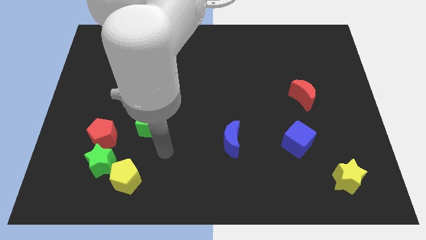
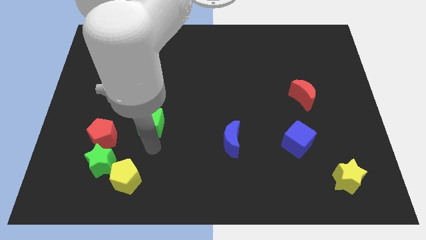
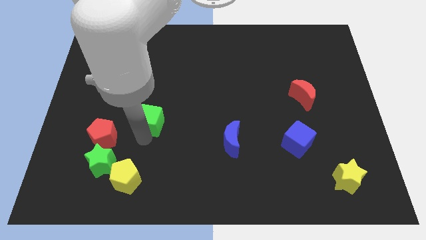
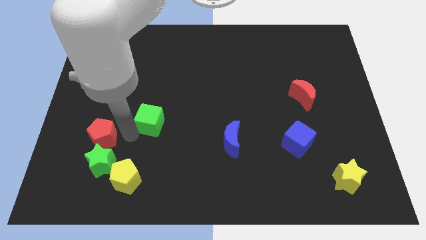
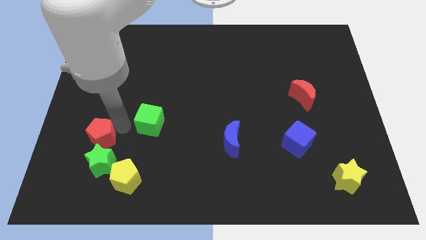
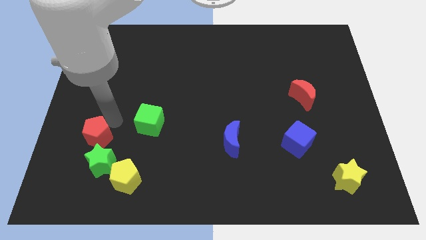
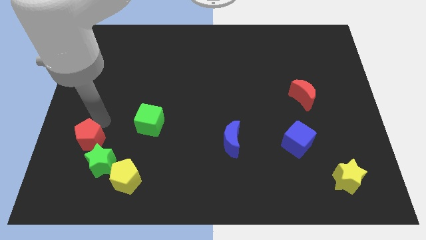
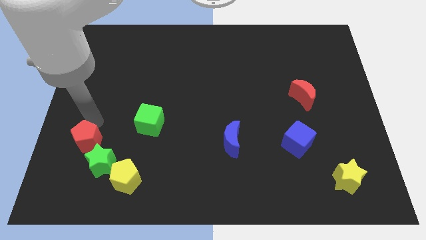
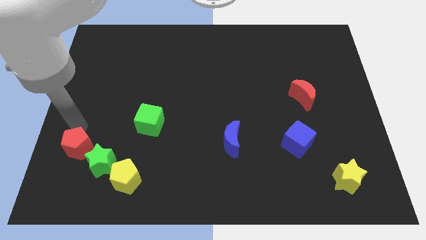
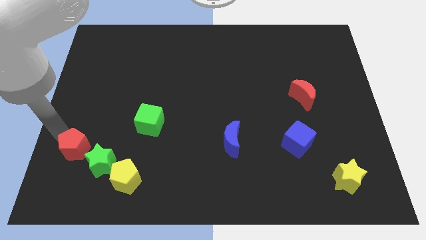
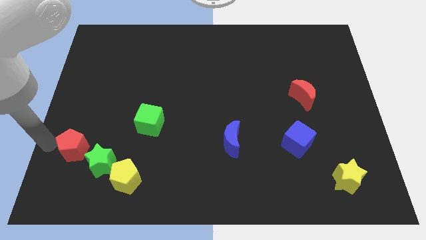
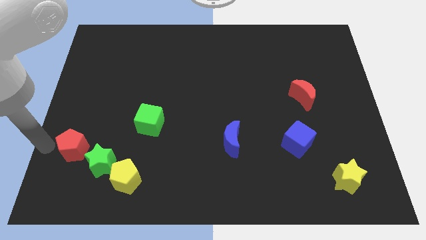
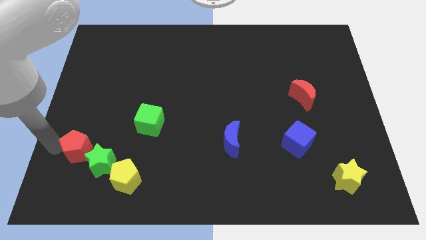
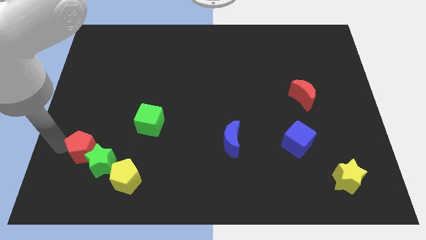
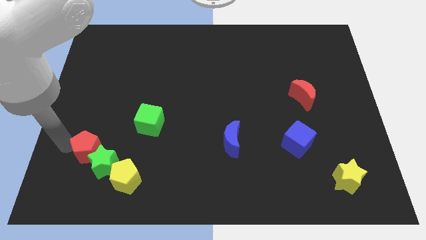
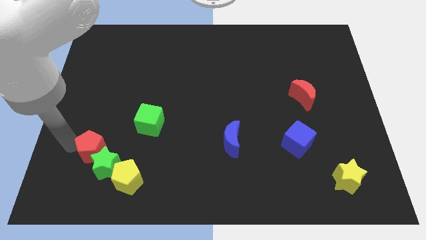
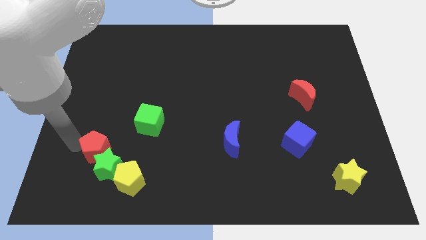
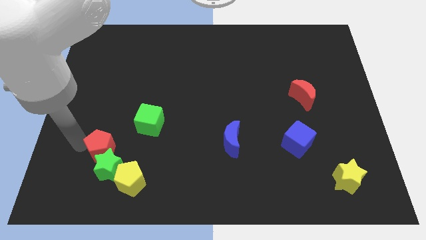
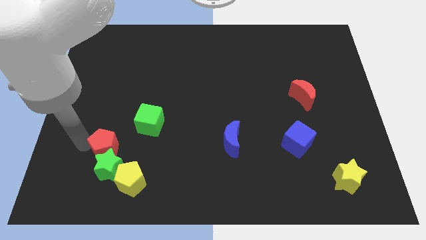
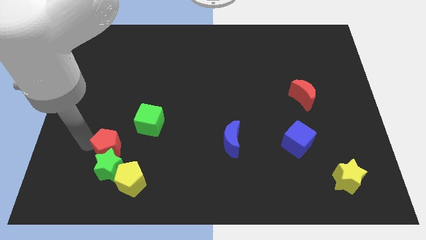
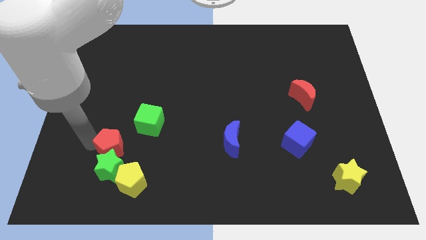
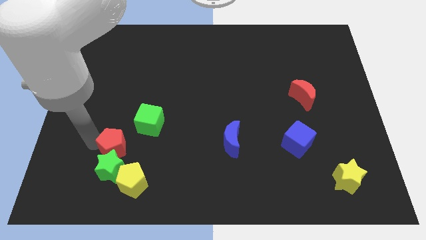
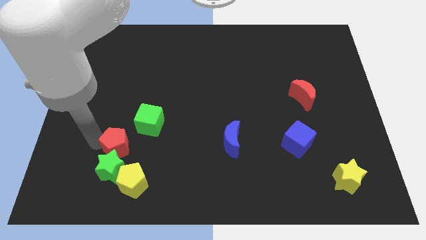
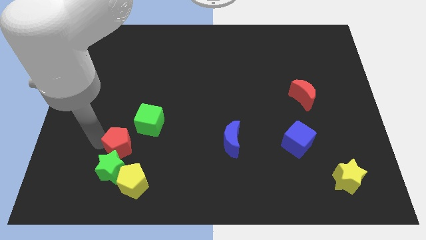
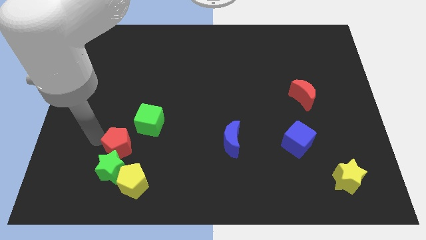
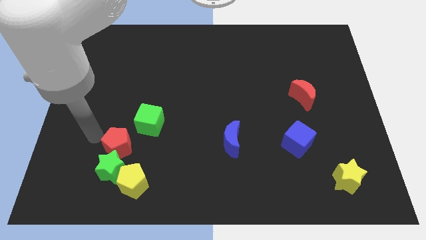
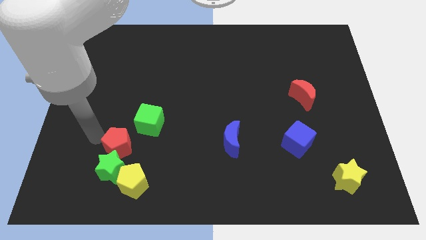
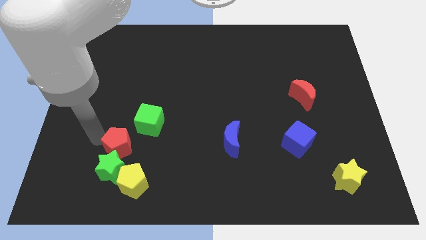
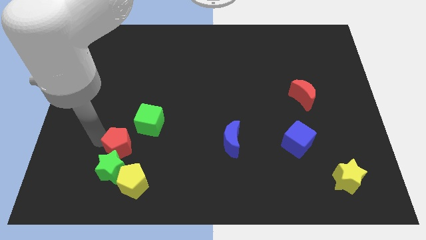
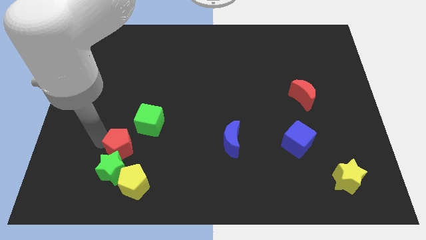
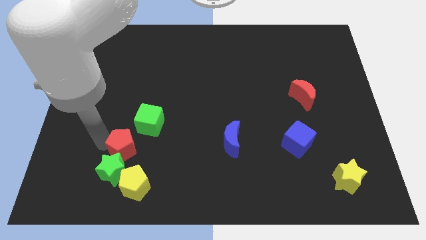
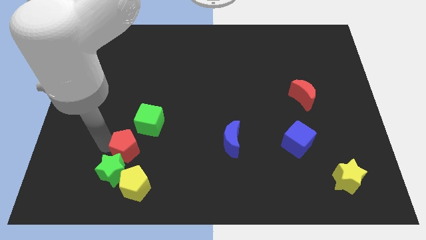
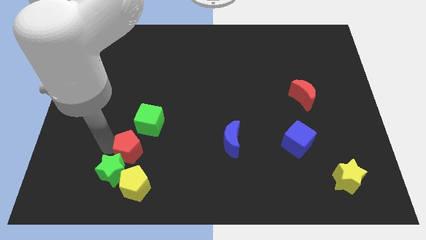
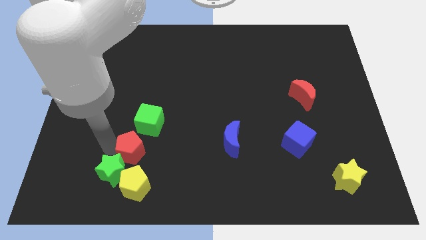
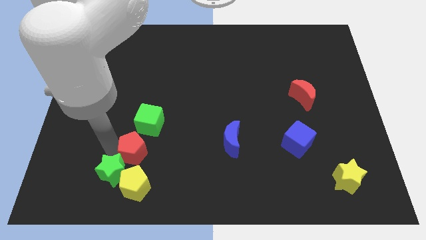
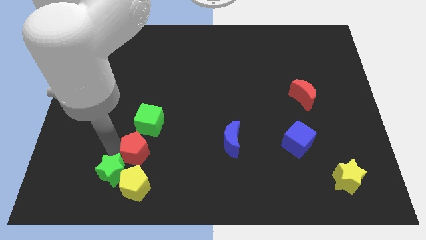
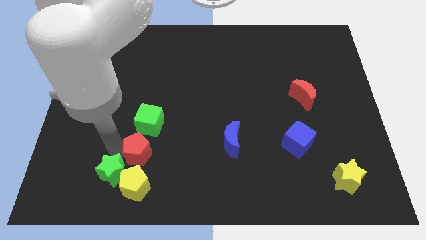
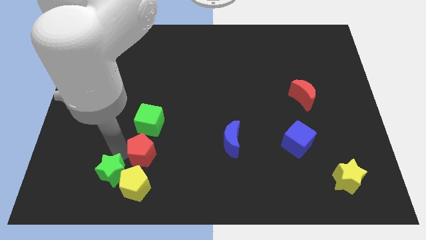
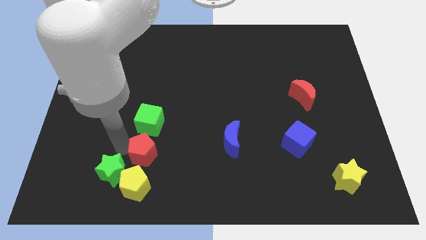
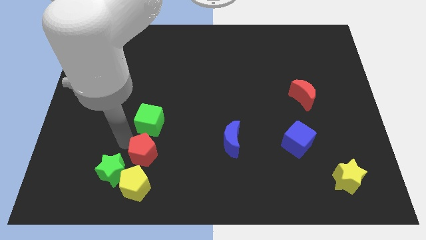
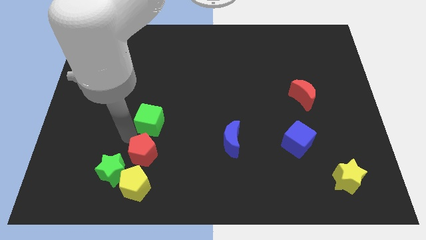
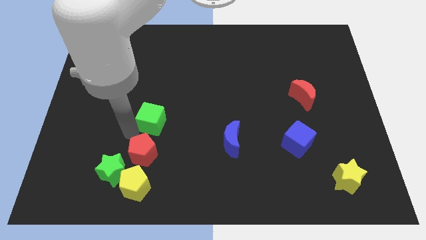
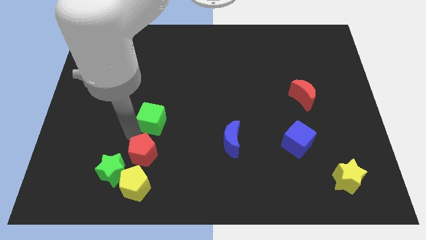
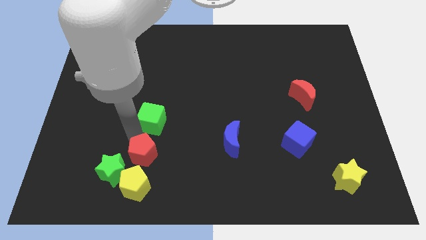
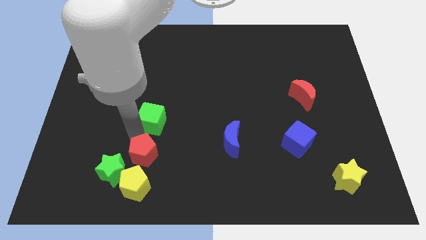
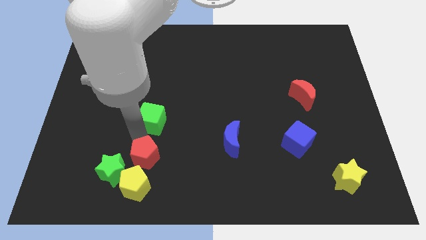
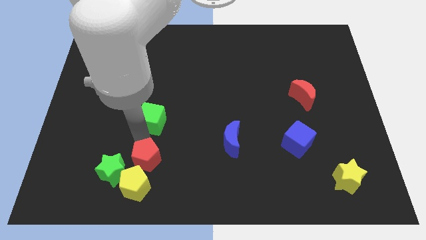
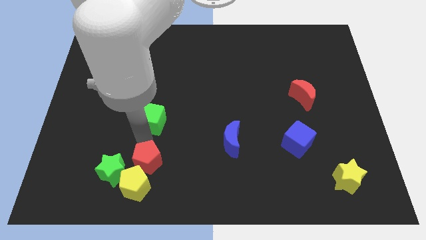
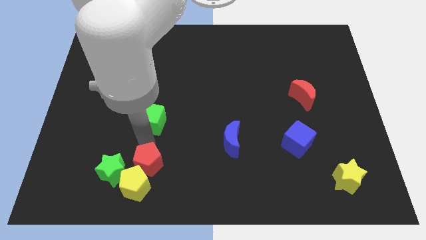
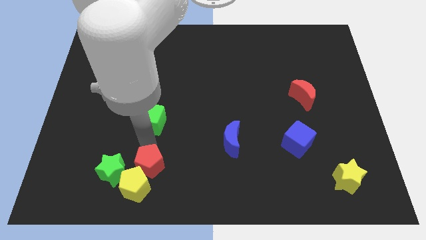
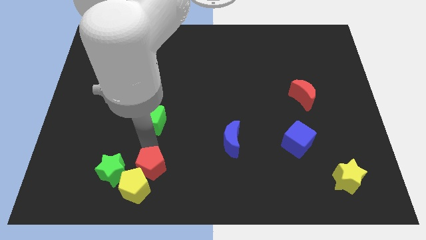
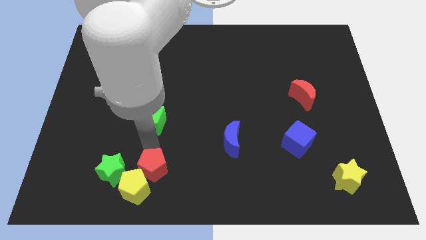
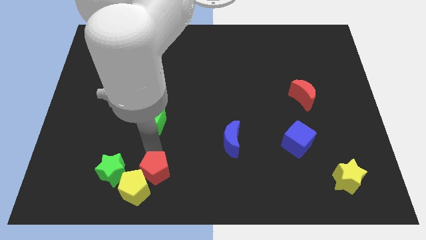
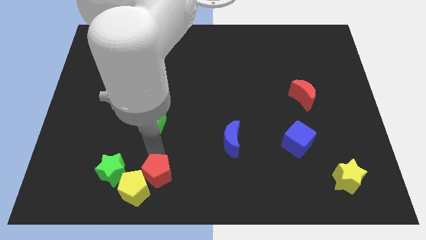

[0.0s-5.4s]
push the red pentagon to the bottom

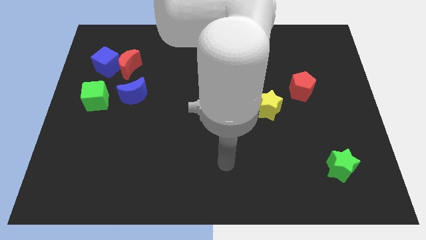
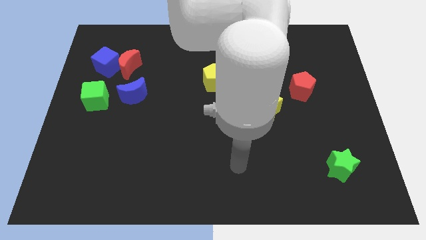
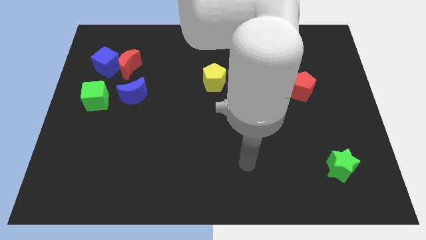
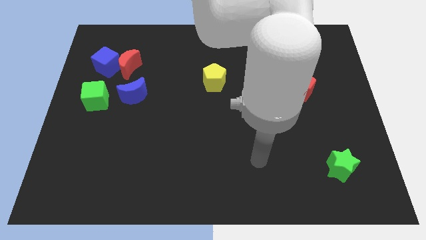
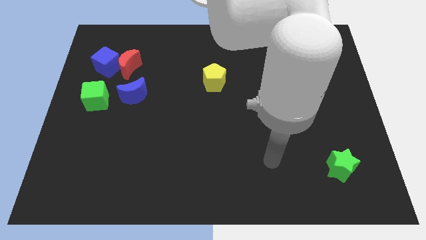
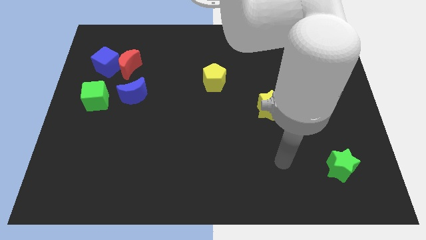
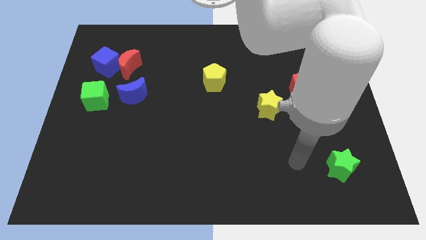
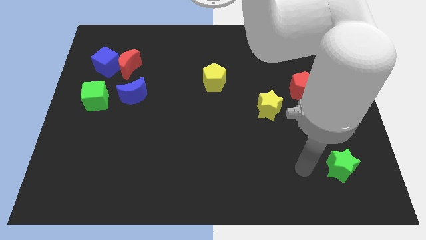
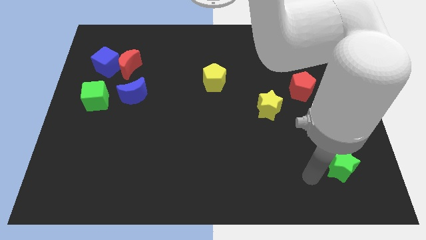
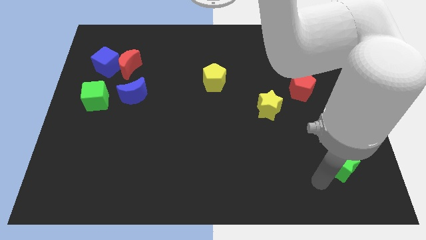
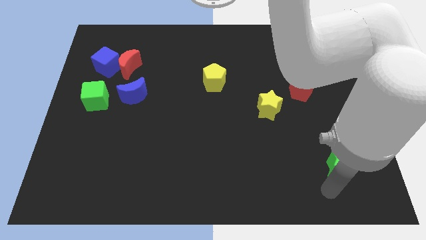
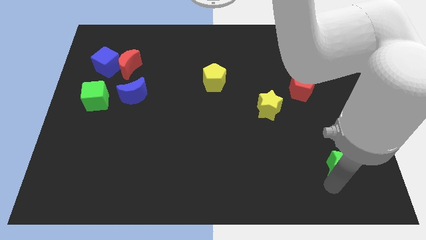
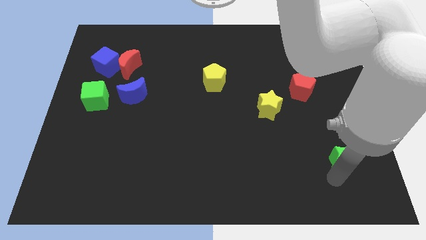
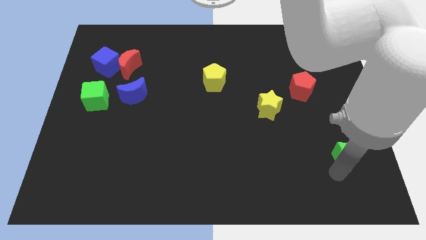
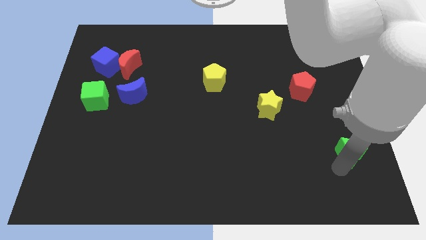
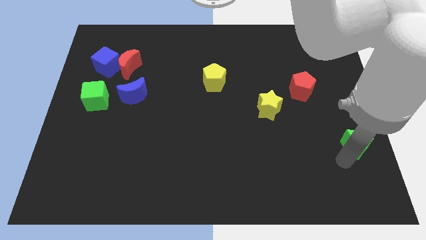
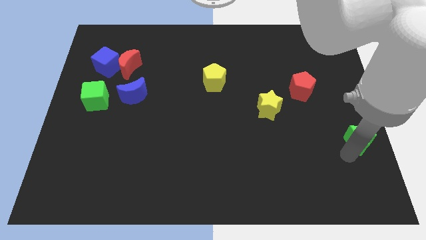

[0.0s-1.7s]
push the green star to the right side of the board
